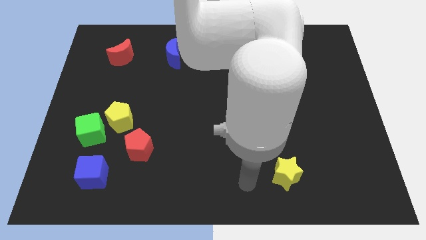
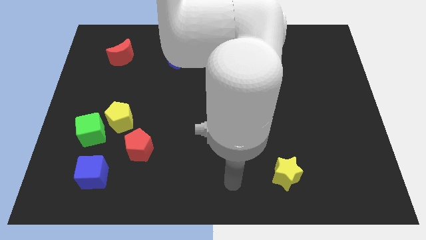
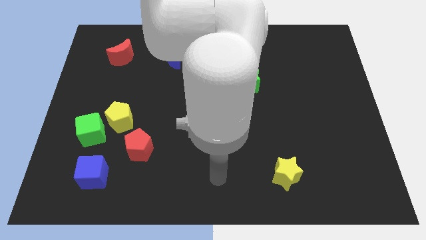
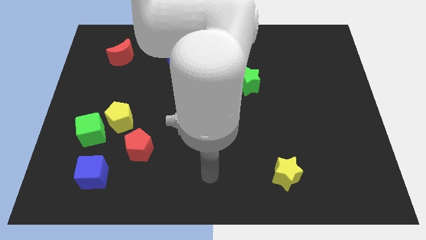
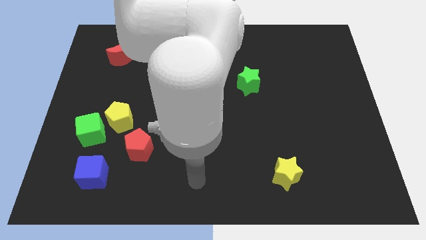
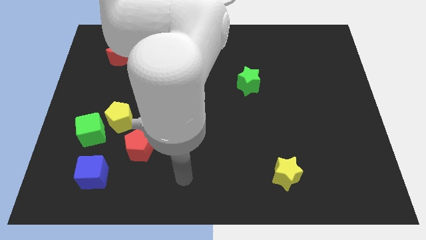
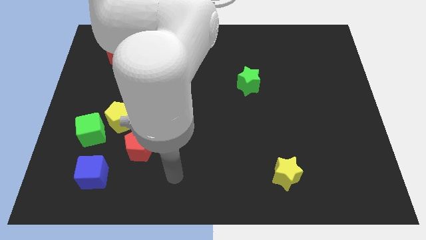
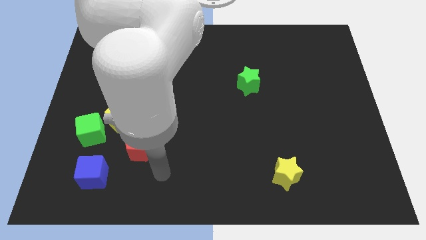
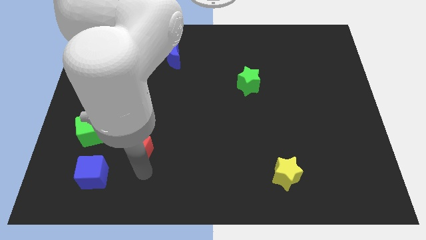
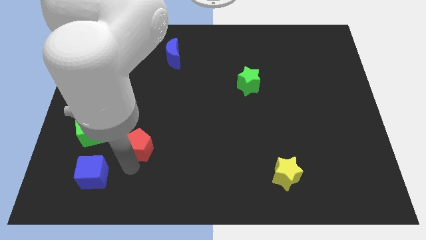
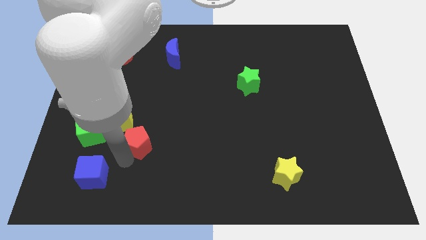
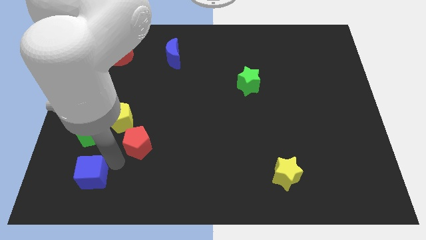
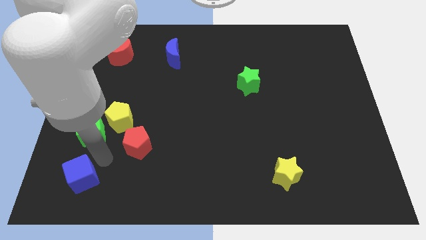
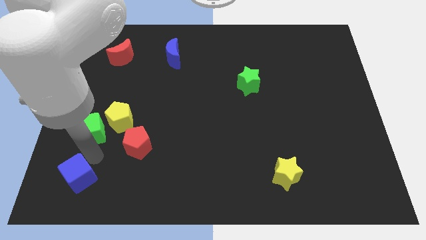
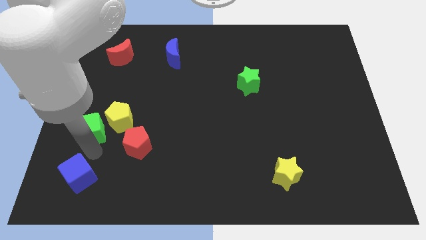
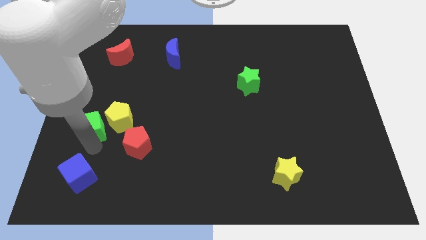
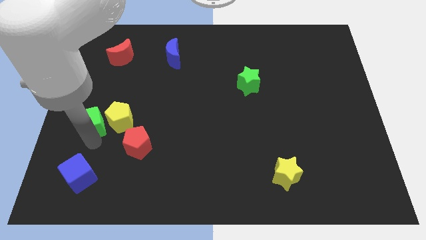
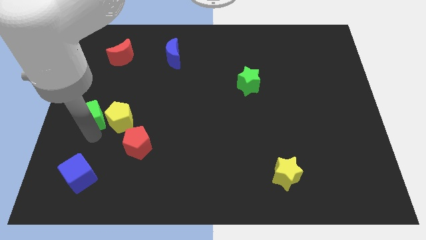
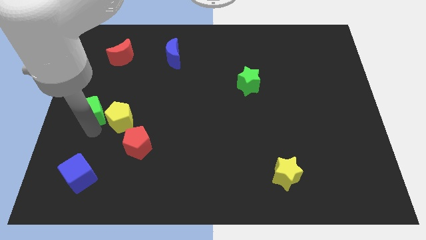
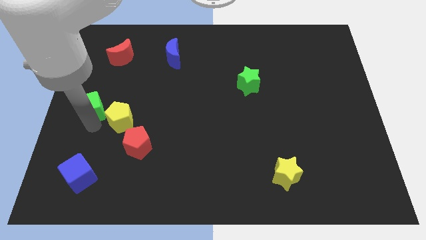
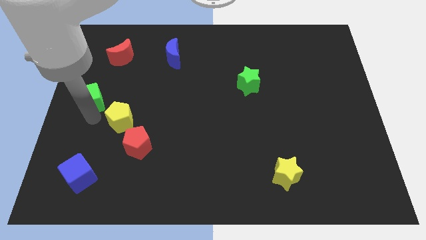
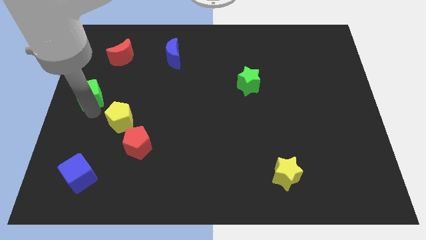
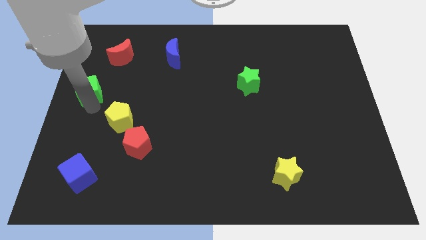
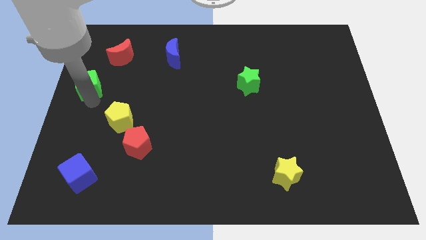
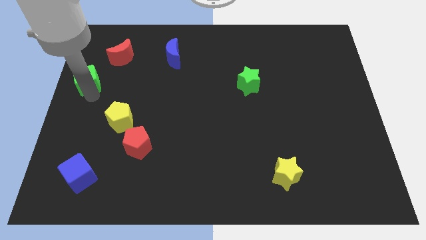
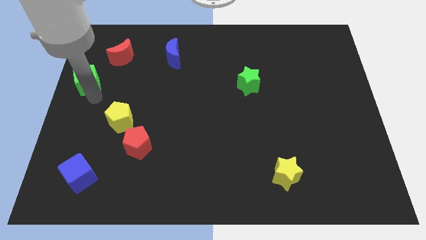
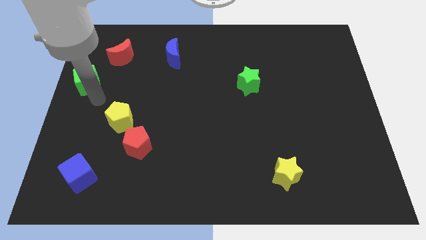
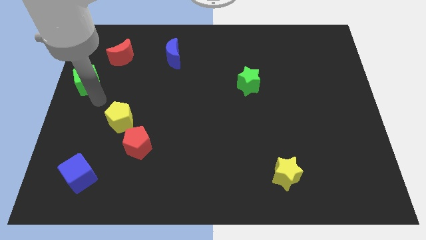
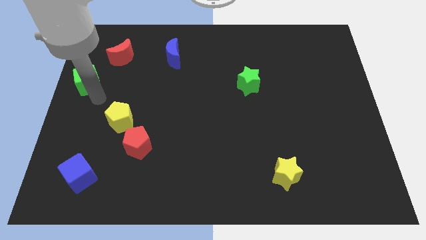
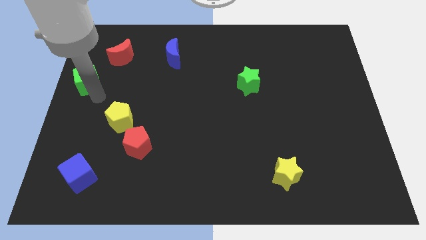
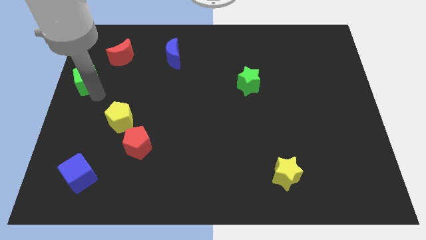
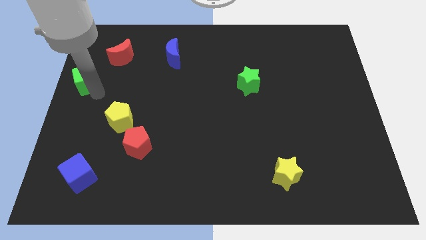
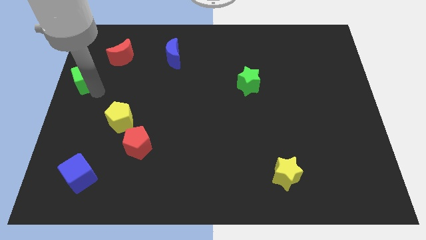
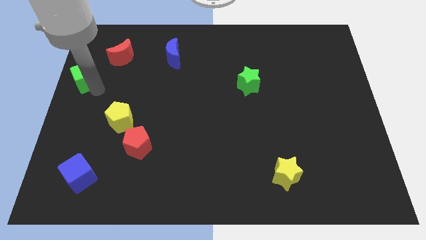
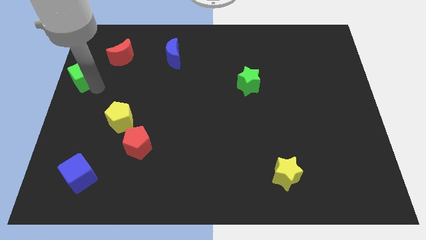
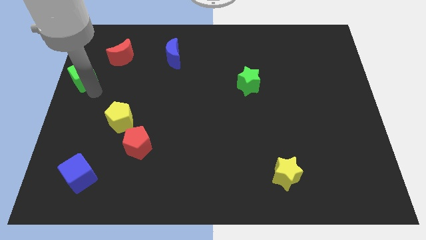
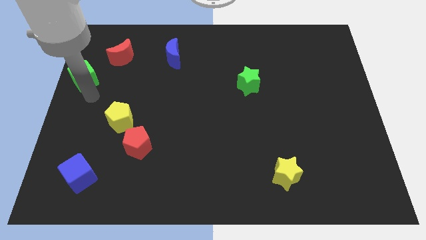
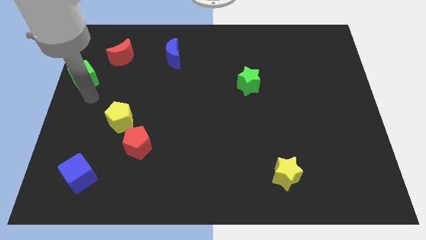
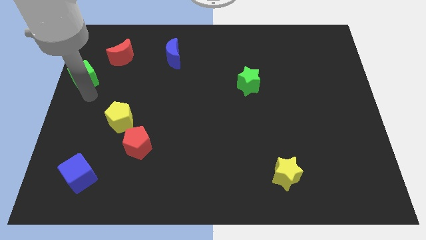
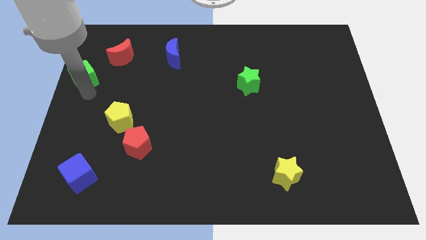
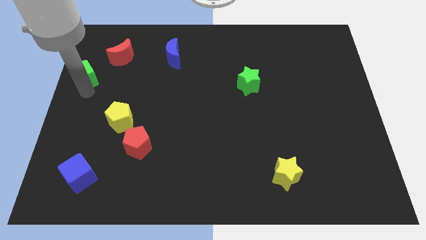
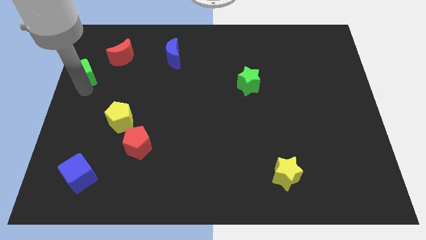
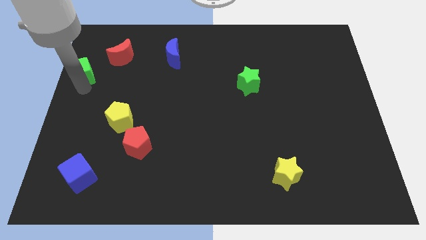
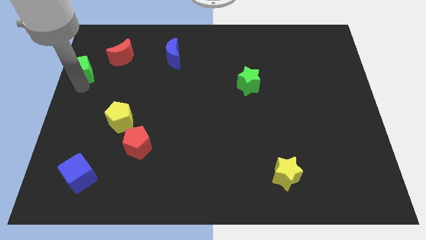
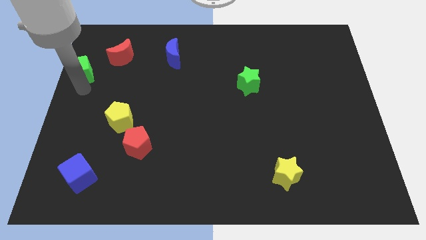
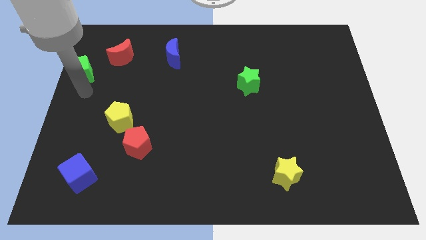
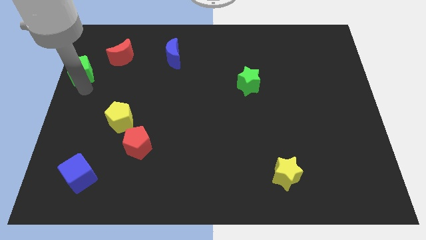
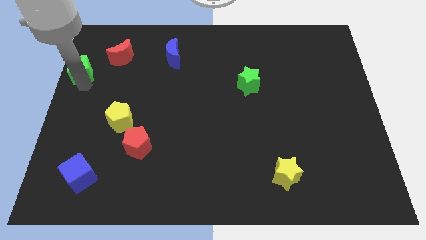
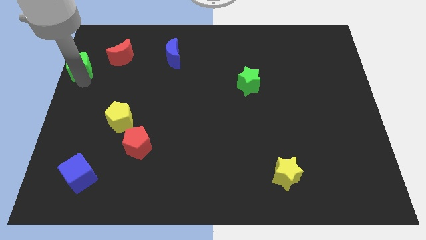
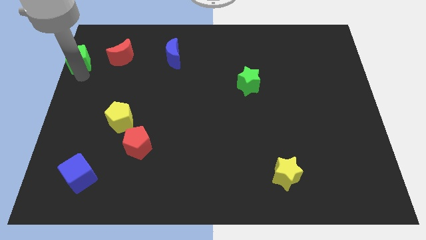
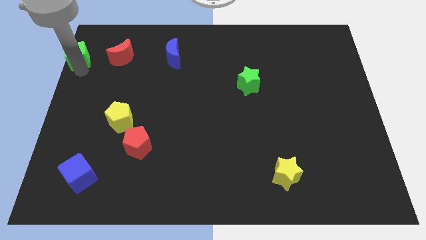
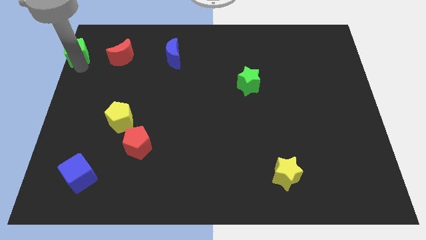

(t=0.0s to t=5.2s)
move the green cube to the upper left corner

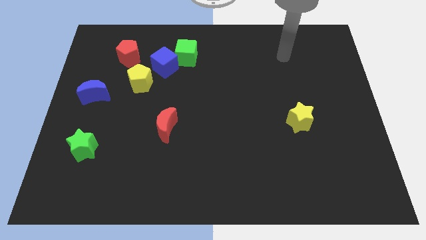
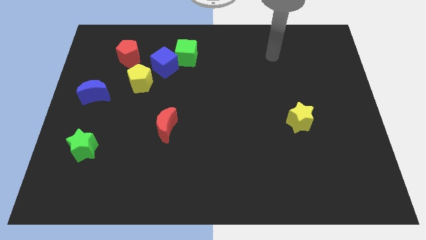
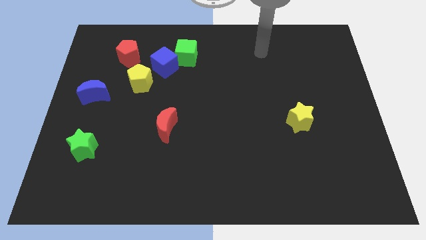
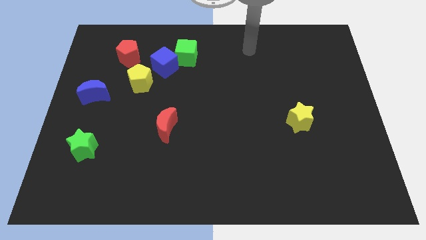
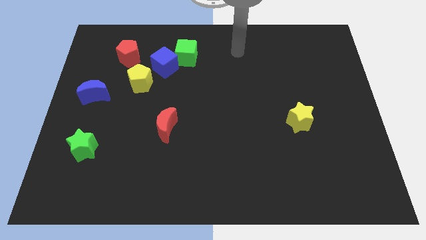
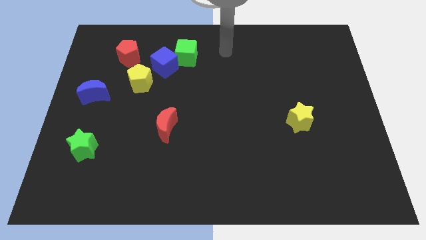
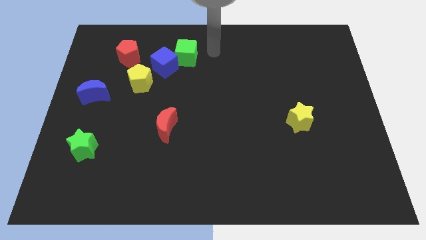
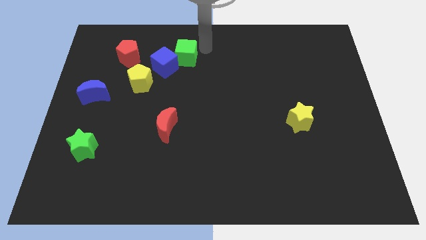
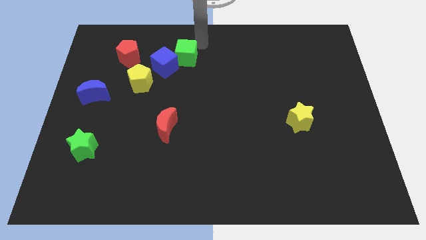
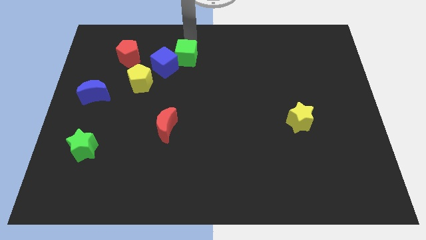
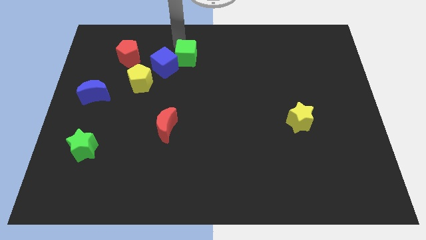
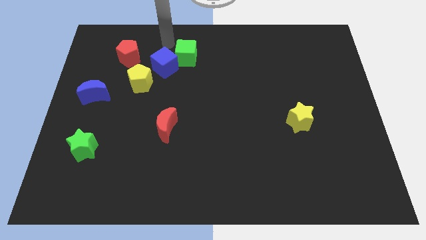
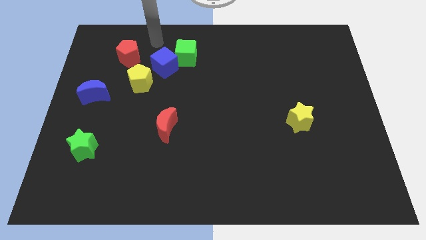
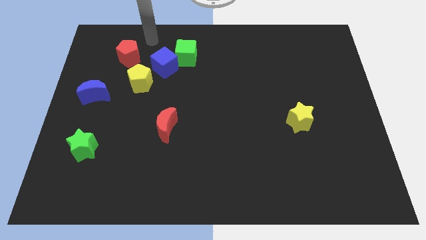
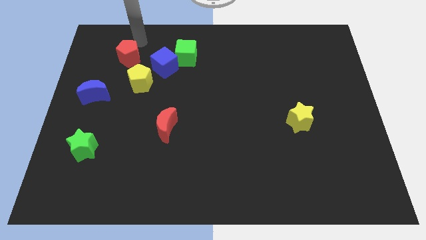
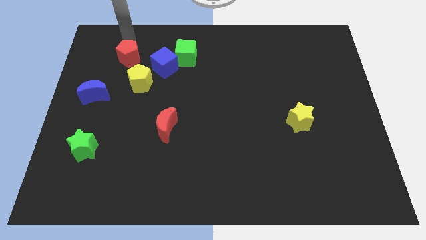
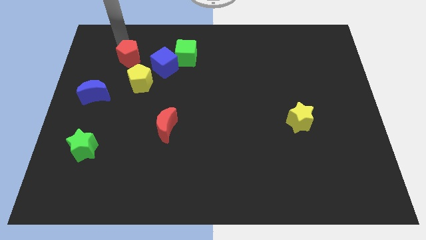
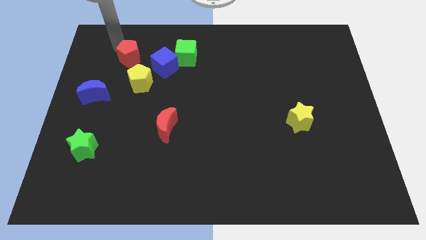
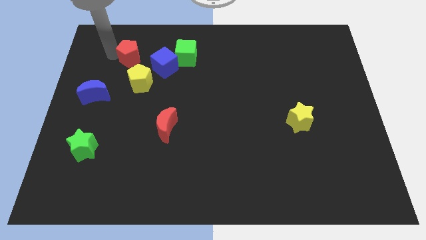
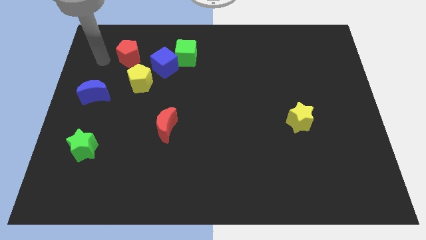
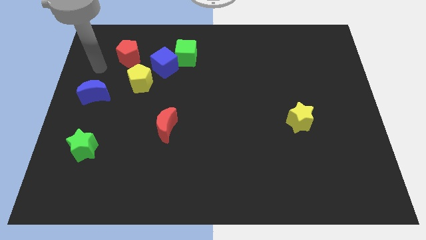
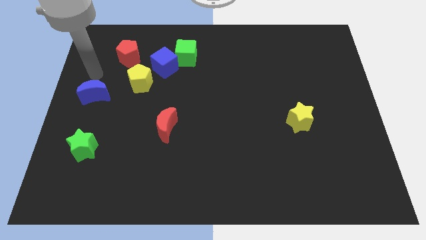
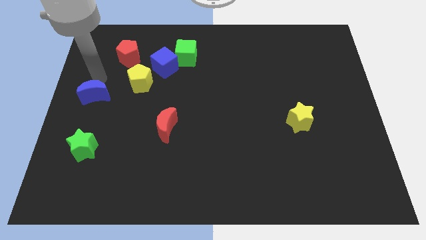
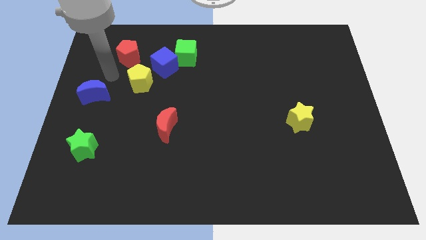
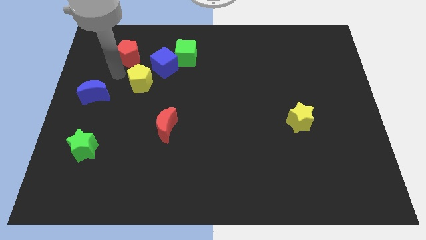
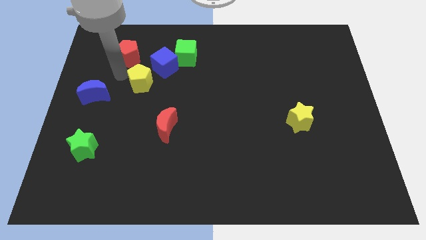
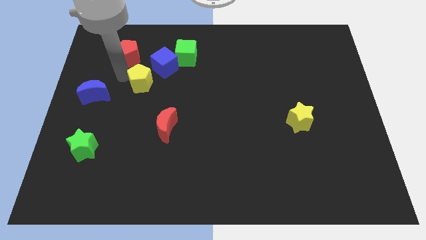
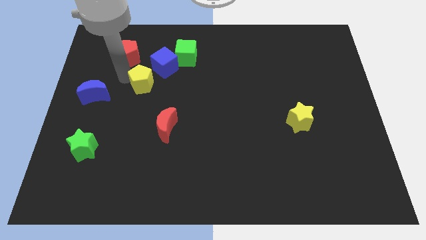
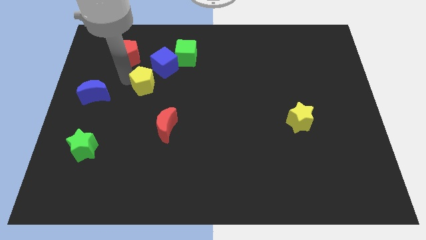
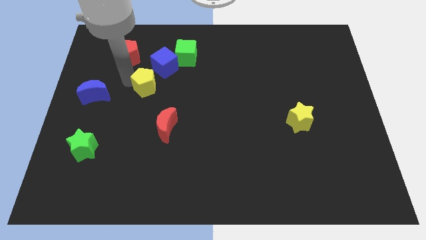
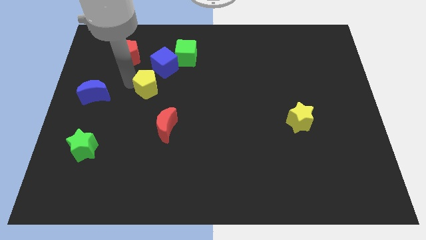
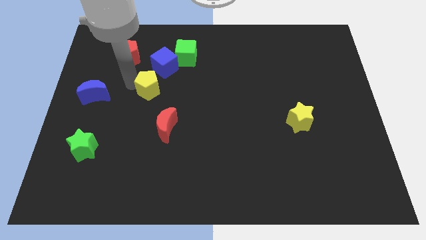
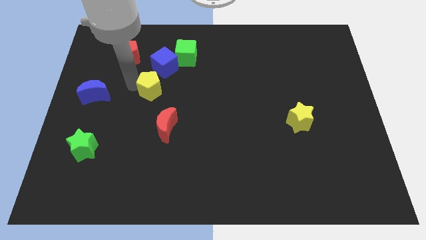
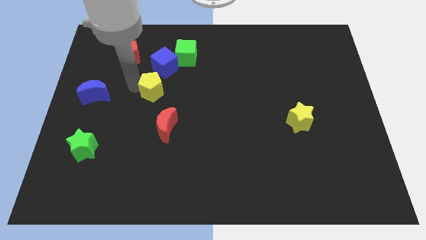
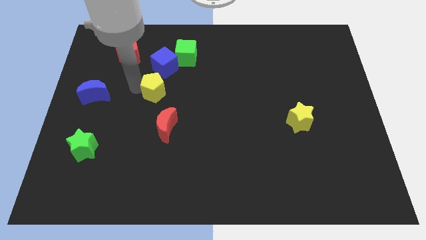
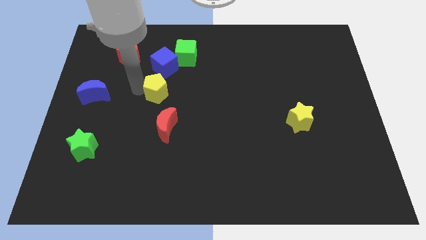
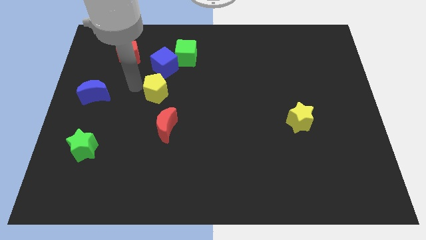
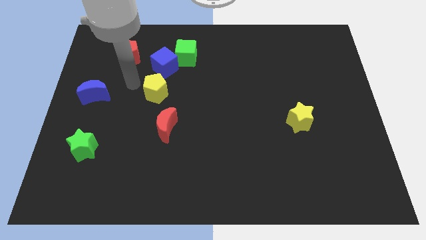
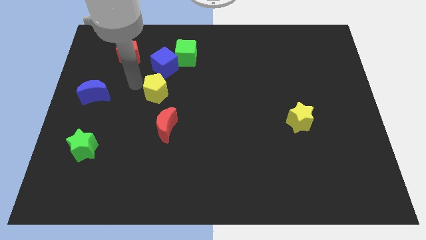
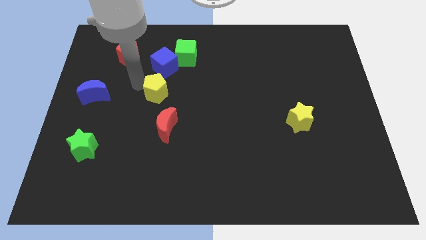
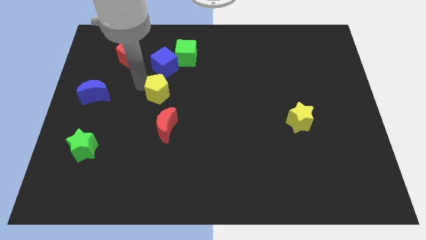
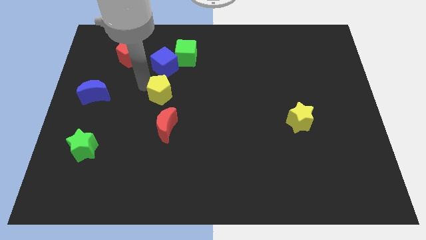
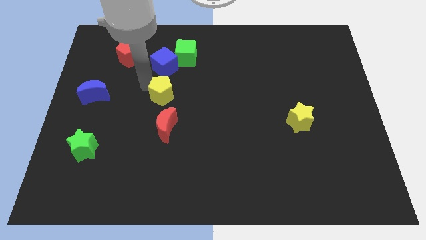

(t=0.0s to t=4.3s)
put the yellow pentagon to the middle
